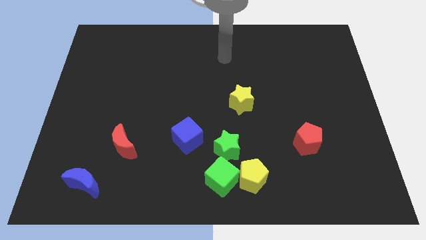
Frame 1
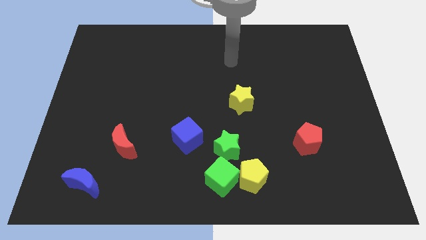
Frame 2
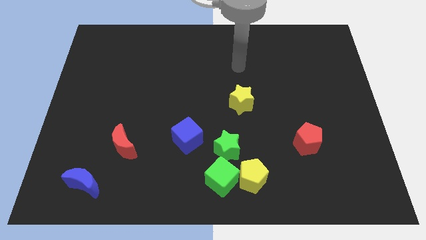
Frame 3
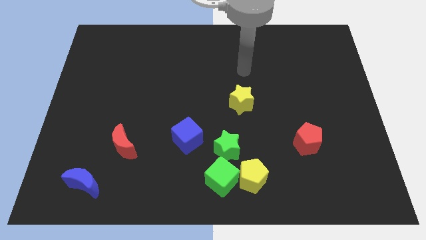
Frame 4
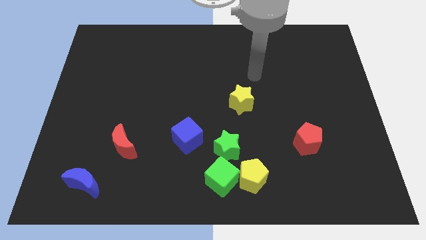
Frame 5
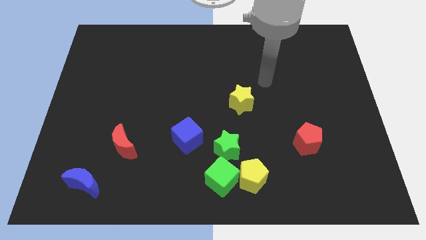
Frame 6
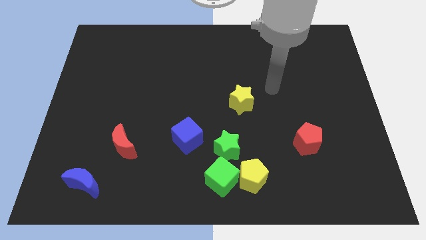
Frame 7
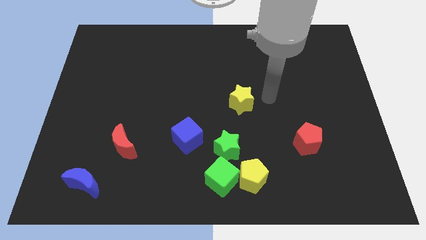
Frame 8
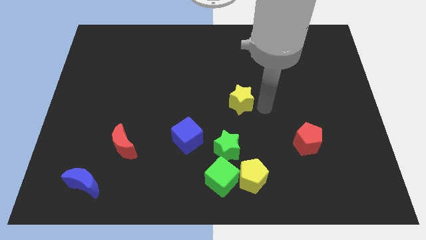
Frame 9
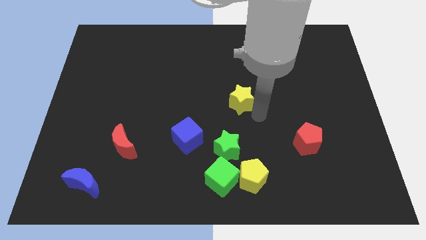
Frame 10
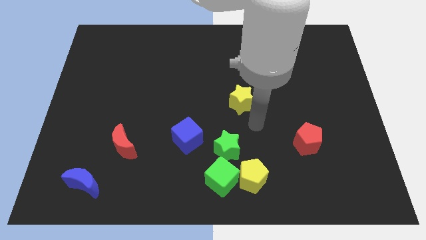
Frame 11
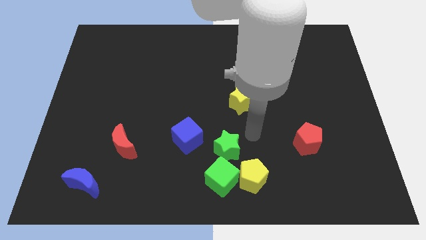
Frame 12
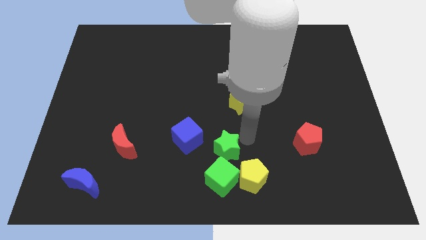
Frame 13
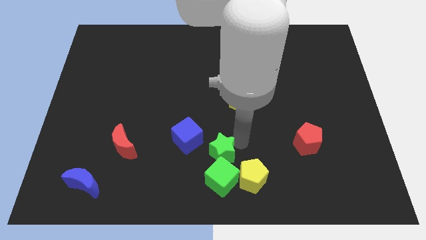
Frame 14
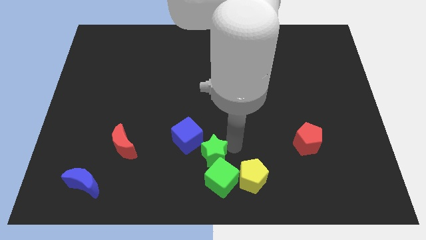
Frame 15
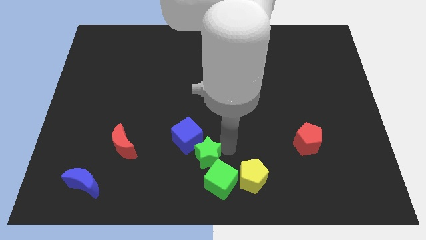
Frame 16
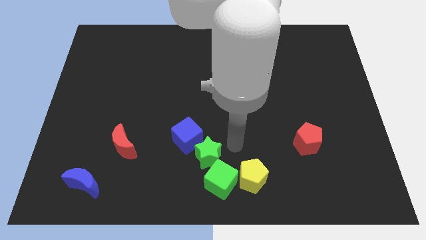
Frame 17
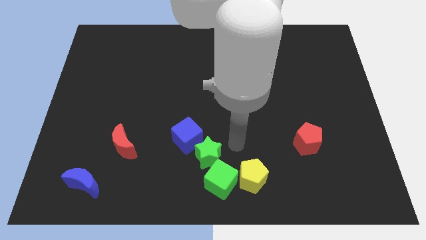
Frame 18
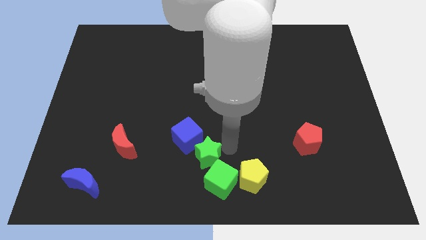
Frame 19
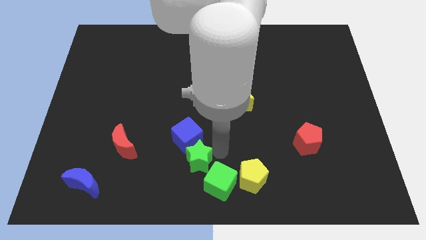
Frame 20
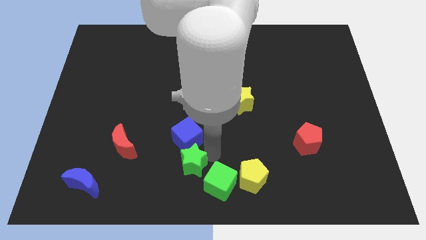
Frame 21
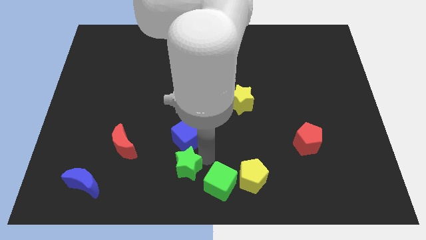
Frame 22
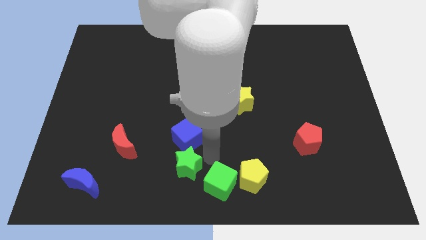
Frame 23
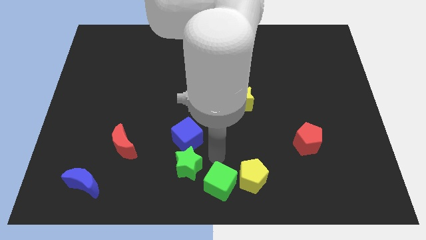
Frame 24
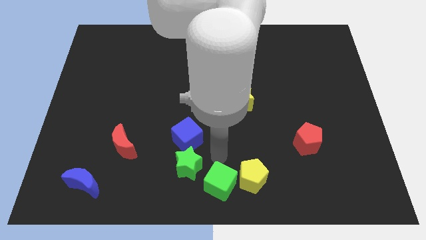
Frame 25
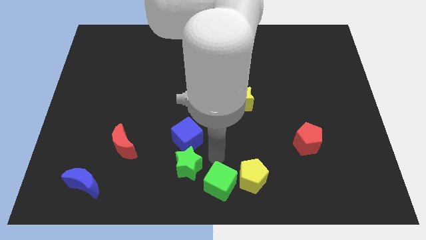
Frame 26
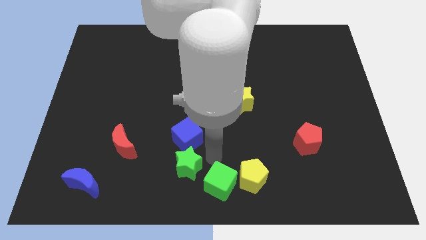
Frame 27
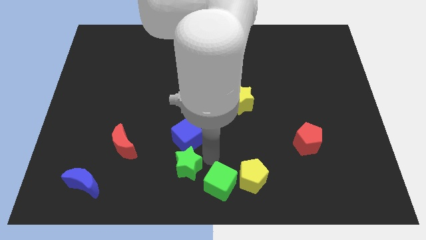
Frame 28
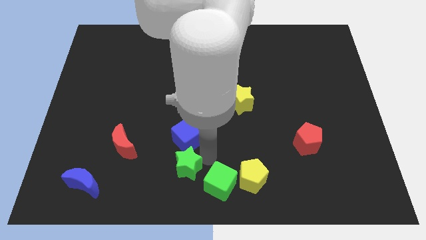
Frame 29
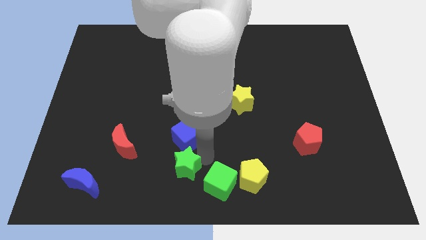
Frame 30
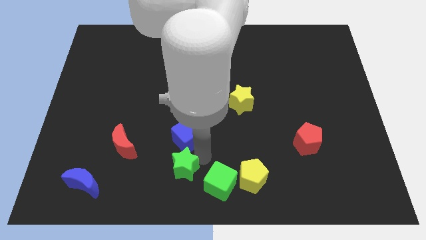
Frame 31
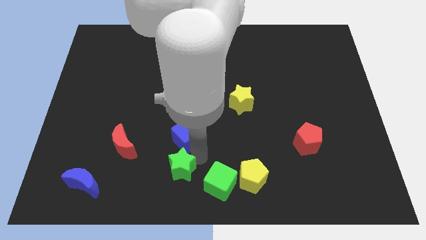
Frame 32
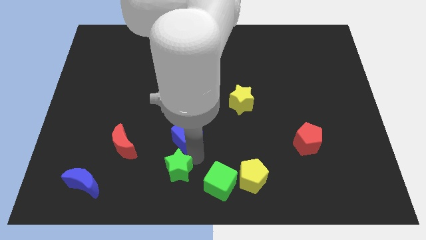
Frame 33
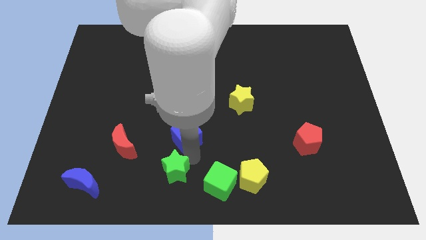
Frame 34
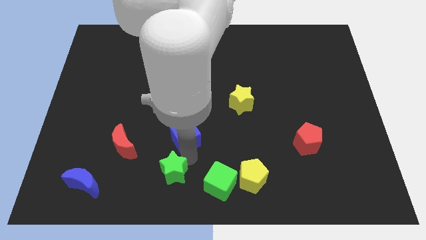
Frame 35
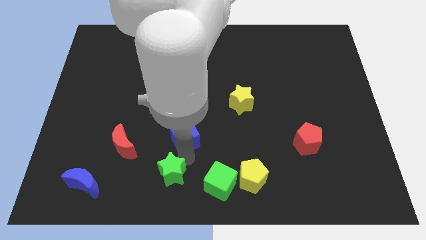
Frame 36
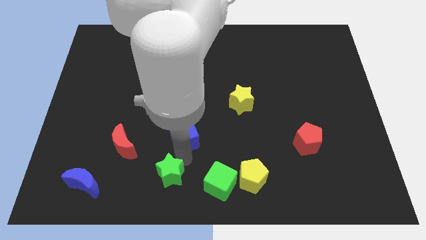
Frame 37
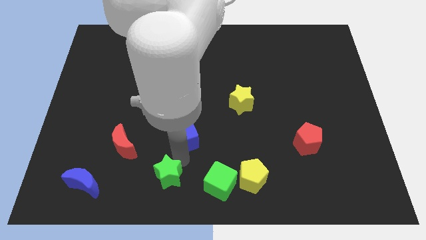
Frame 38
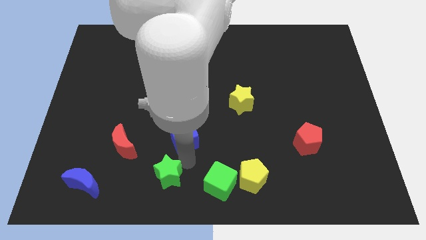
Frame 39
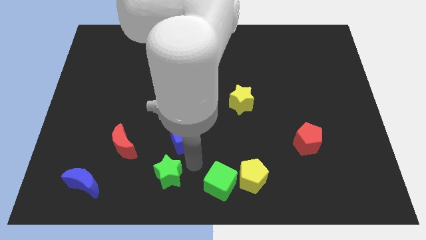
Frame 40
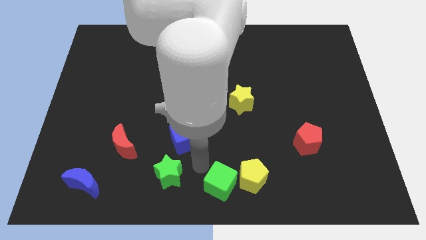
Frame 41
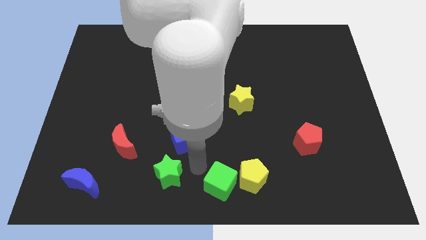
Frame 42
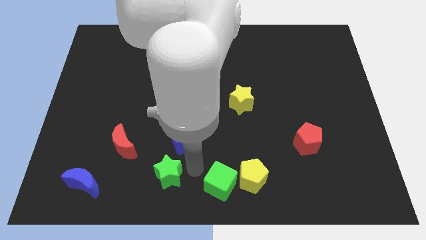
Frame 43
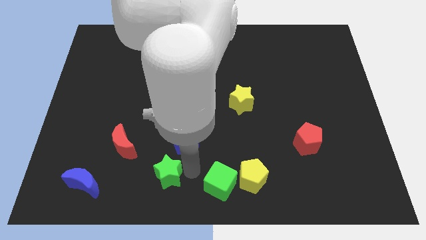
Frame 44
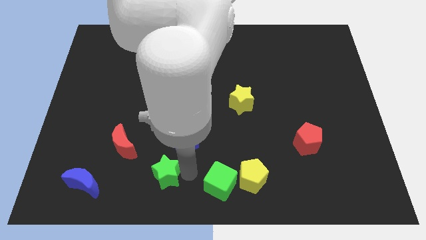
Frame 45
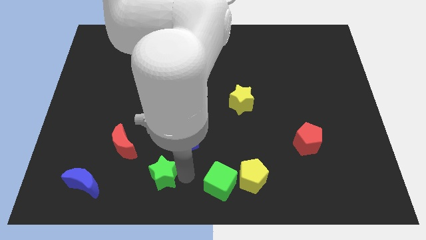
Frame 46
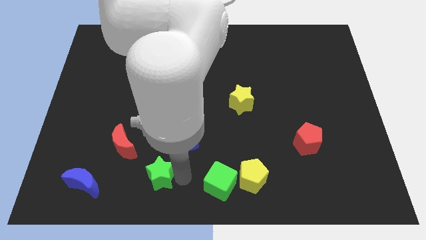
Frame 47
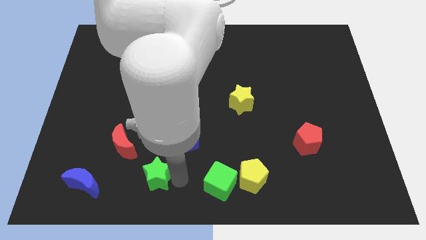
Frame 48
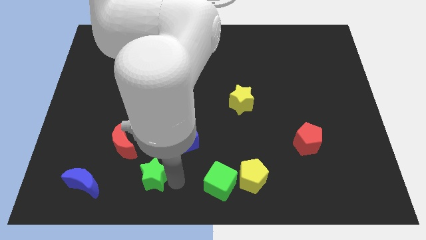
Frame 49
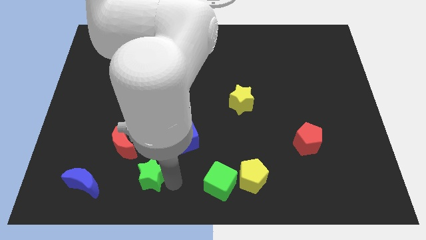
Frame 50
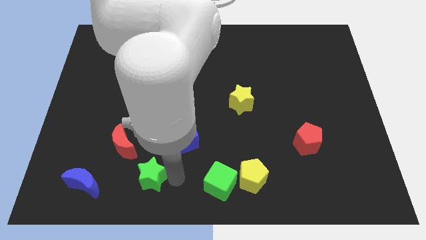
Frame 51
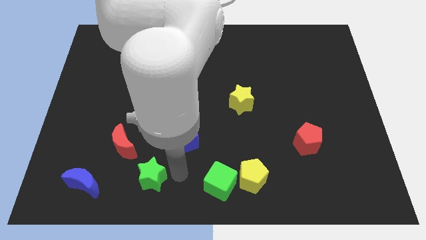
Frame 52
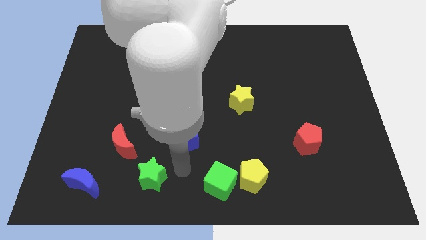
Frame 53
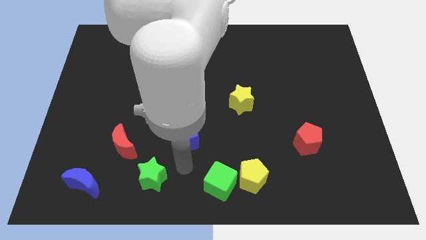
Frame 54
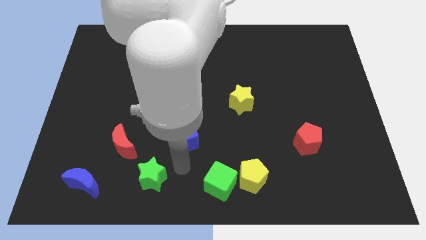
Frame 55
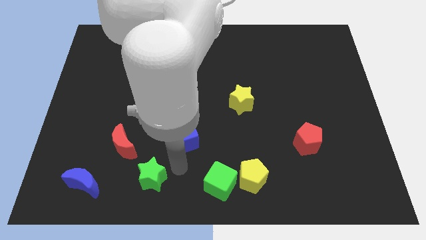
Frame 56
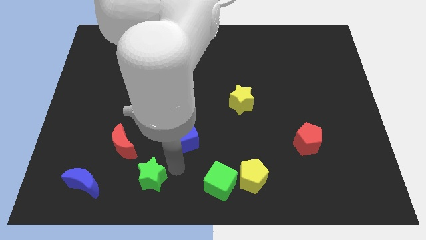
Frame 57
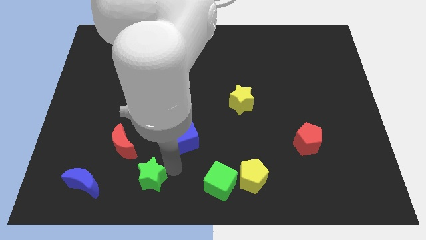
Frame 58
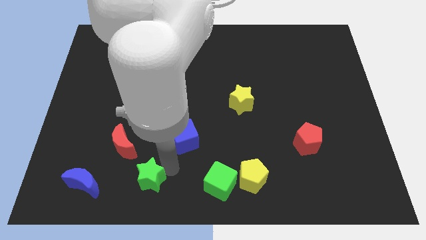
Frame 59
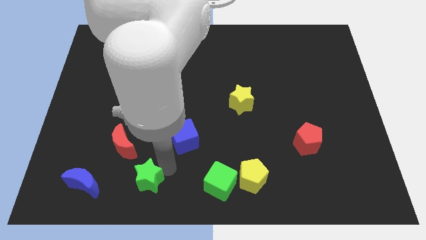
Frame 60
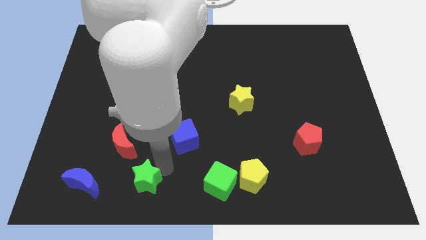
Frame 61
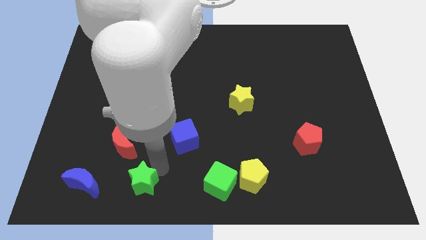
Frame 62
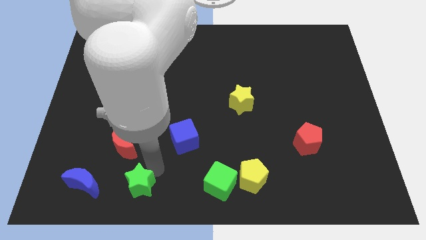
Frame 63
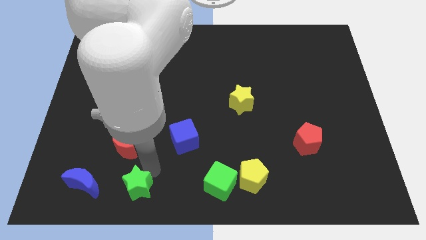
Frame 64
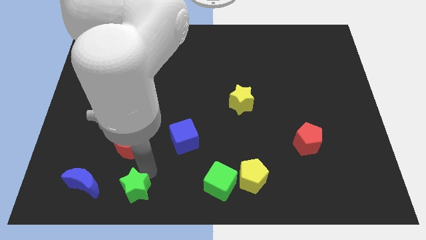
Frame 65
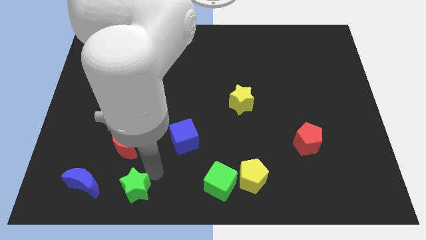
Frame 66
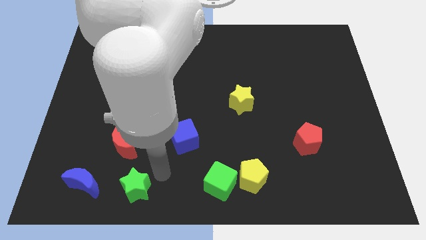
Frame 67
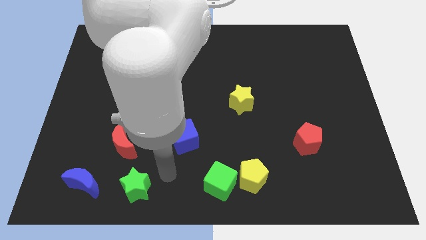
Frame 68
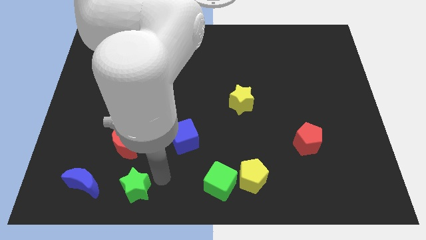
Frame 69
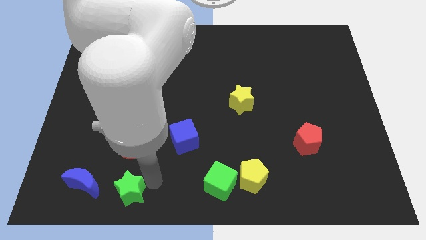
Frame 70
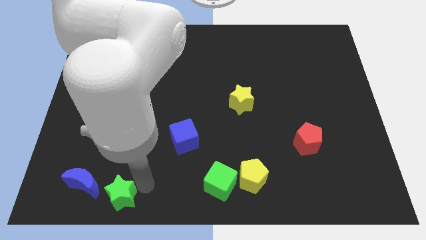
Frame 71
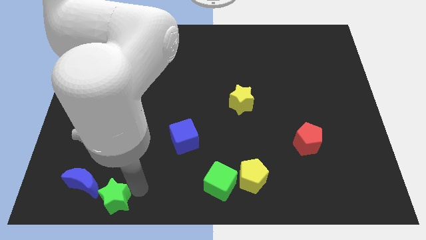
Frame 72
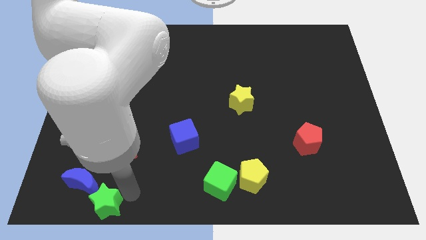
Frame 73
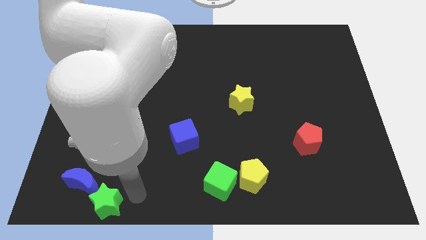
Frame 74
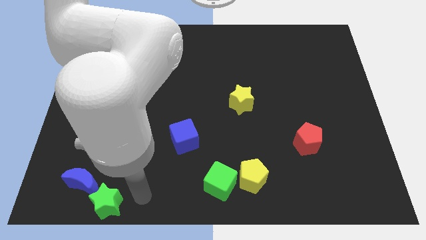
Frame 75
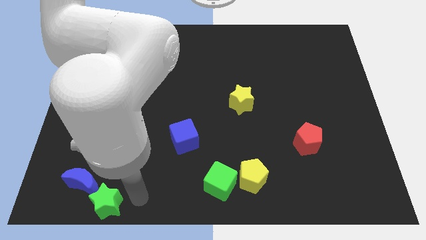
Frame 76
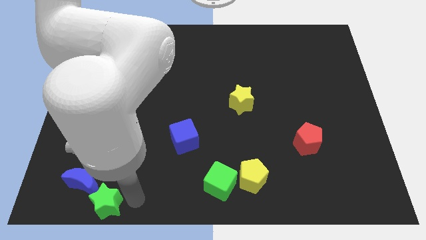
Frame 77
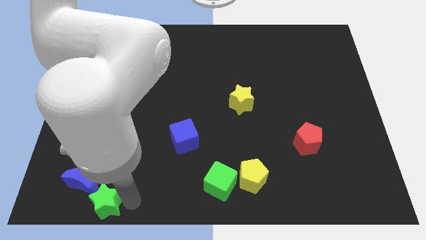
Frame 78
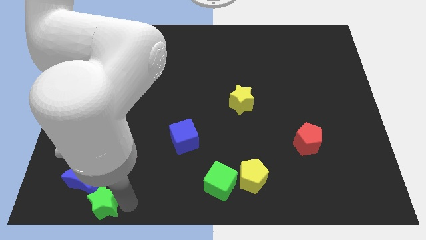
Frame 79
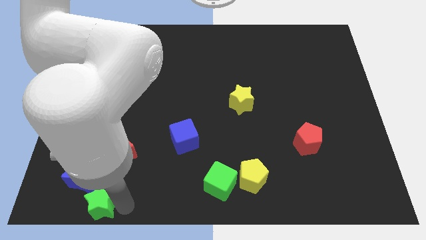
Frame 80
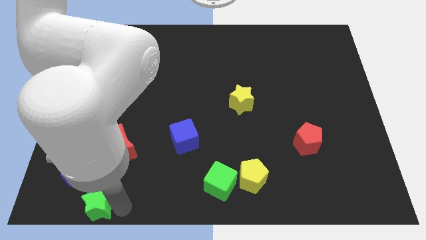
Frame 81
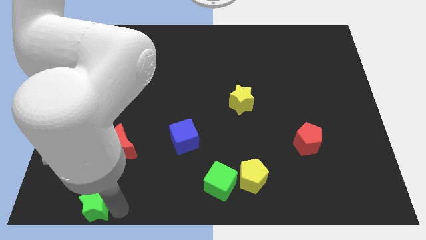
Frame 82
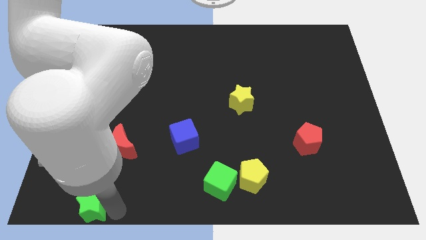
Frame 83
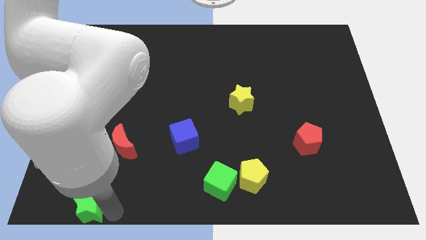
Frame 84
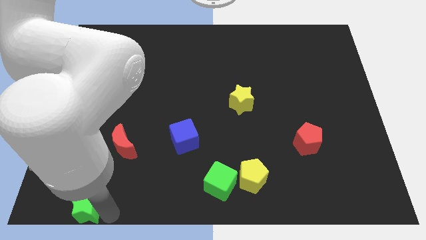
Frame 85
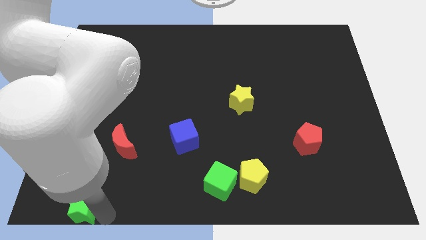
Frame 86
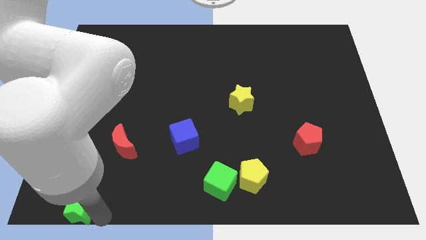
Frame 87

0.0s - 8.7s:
slide the green star to the bottom left
